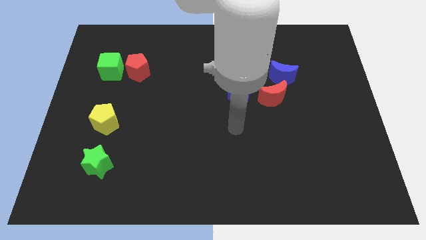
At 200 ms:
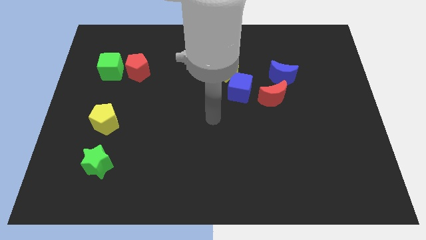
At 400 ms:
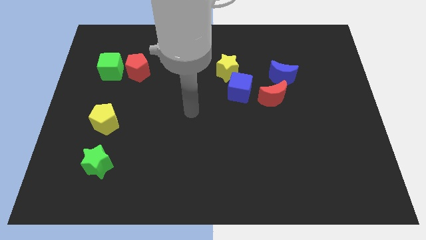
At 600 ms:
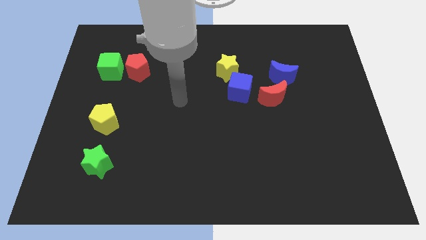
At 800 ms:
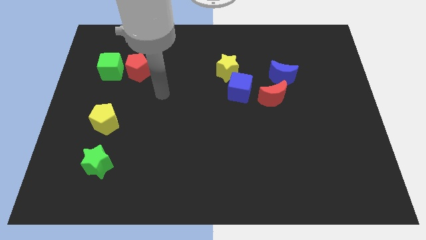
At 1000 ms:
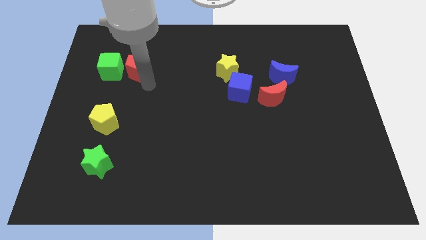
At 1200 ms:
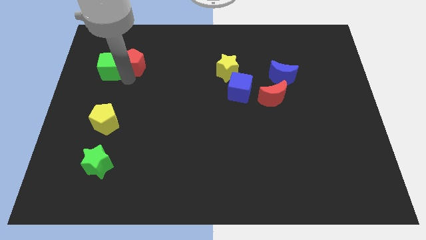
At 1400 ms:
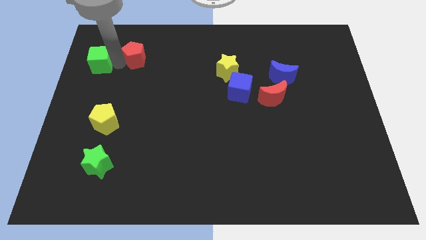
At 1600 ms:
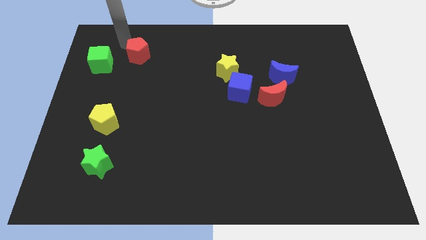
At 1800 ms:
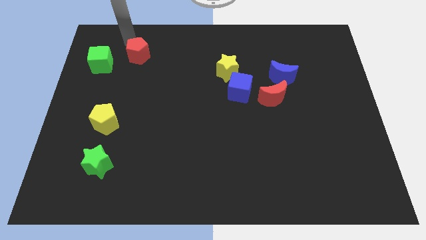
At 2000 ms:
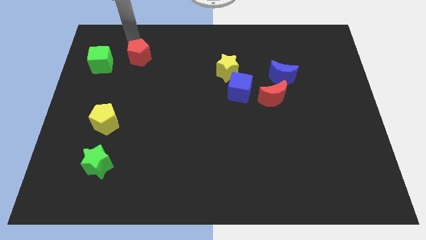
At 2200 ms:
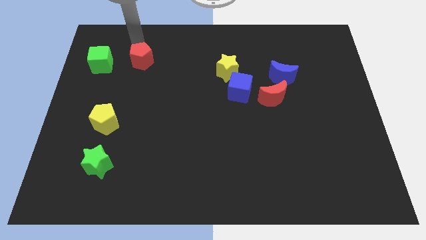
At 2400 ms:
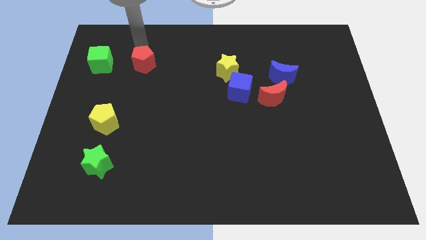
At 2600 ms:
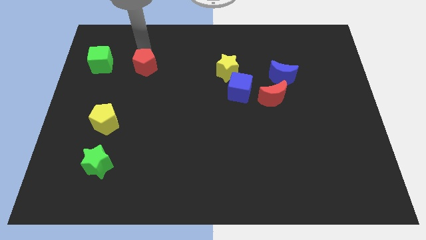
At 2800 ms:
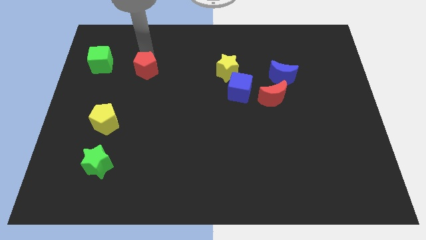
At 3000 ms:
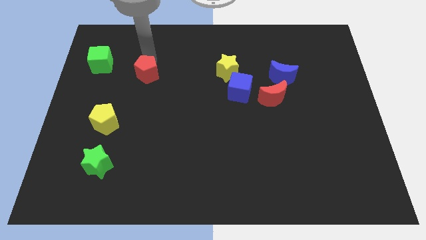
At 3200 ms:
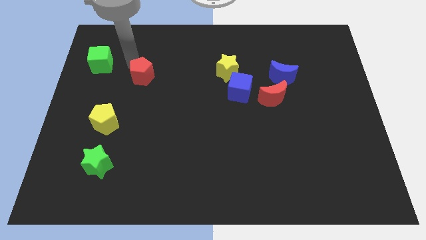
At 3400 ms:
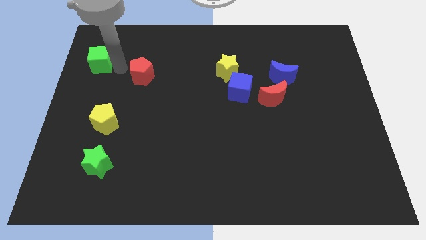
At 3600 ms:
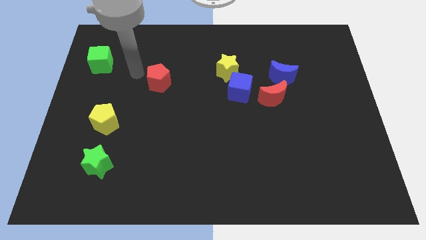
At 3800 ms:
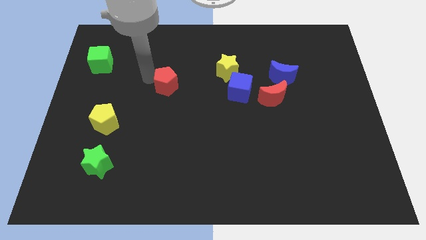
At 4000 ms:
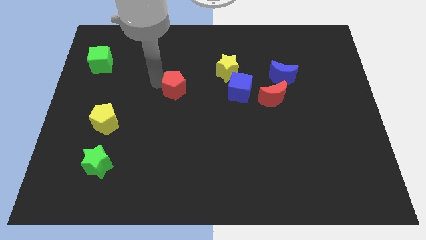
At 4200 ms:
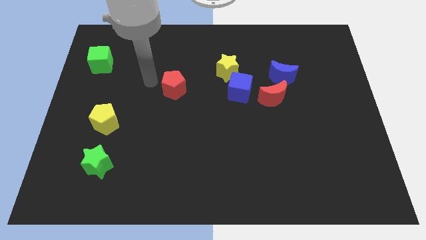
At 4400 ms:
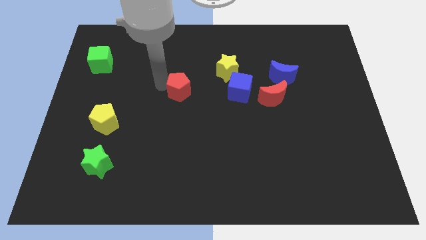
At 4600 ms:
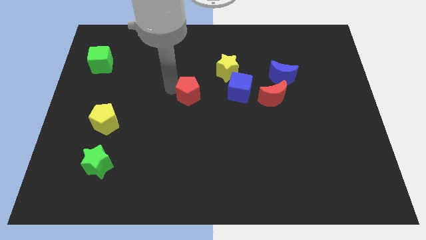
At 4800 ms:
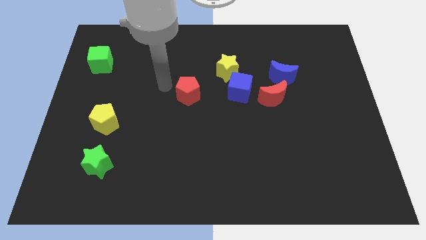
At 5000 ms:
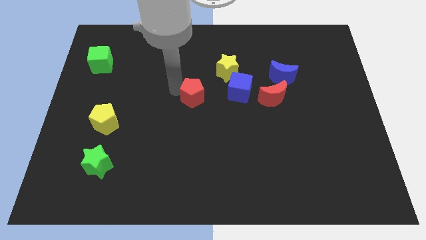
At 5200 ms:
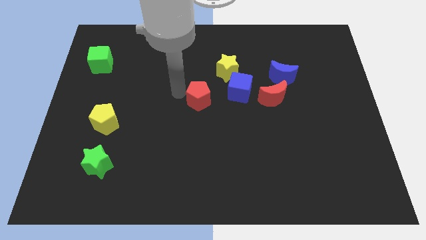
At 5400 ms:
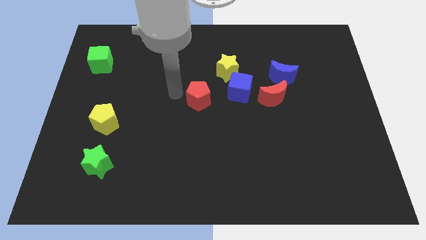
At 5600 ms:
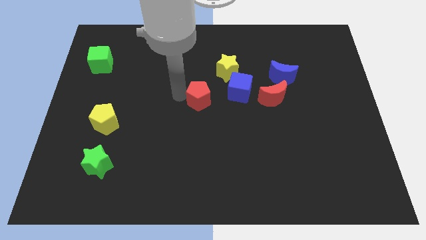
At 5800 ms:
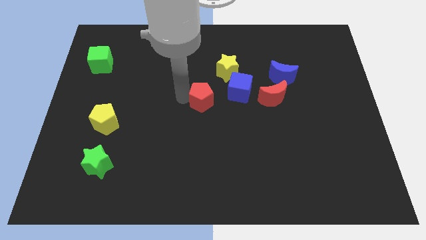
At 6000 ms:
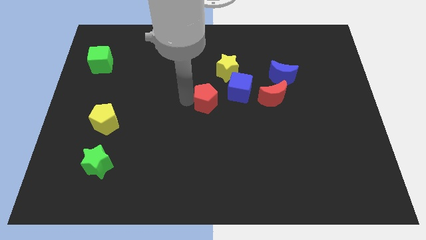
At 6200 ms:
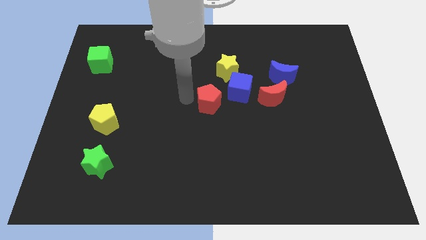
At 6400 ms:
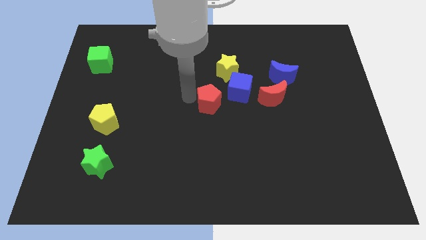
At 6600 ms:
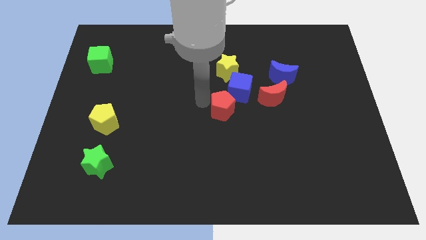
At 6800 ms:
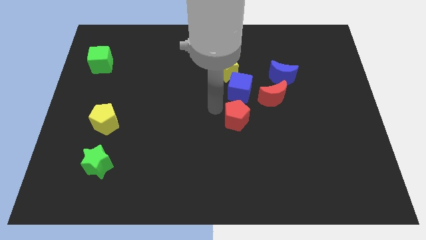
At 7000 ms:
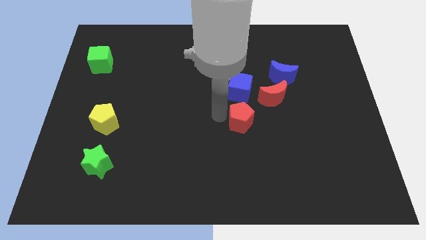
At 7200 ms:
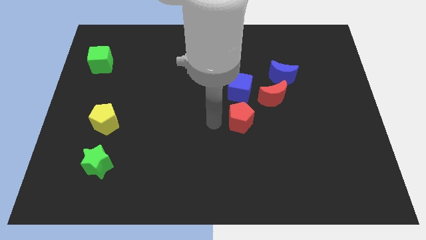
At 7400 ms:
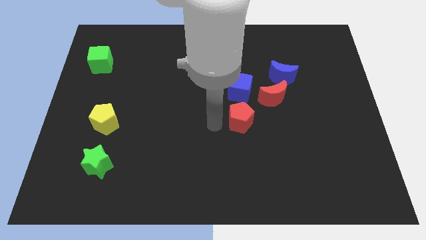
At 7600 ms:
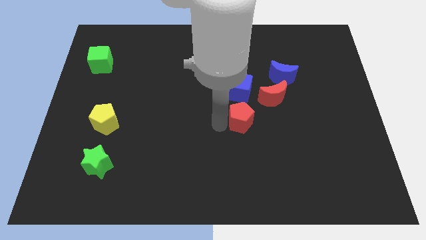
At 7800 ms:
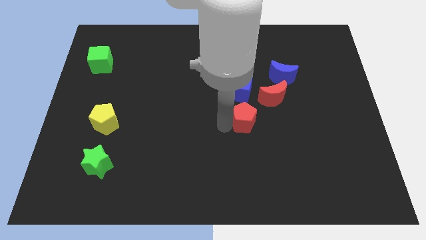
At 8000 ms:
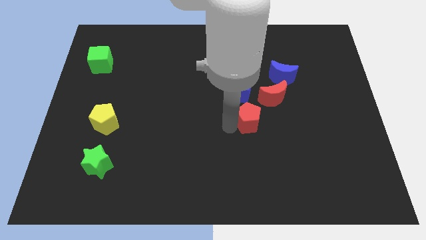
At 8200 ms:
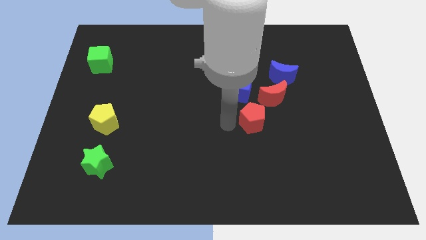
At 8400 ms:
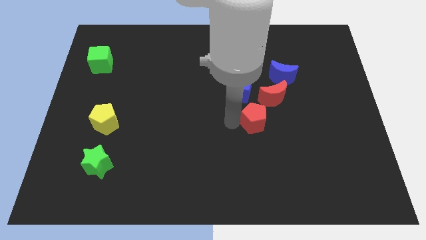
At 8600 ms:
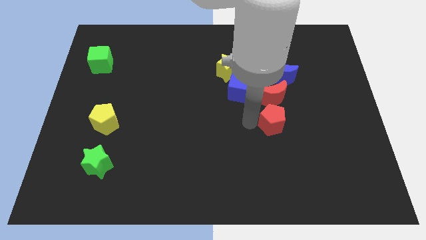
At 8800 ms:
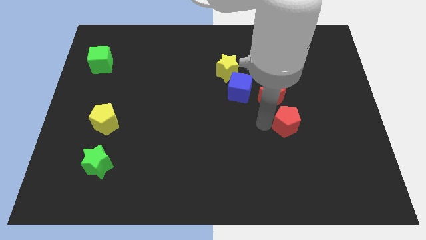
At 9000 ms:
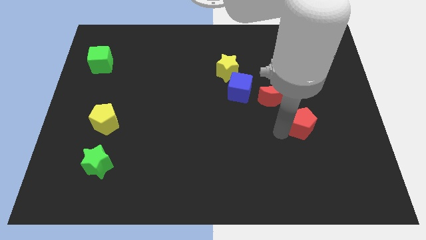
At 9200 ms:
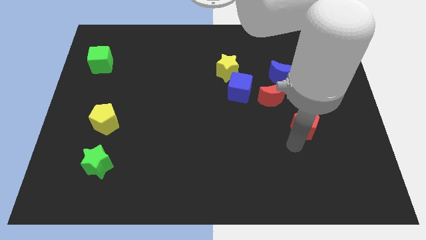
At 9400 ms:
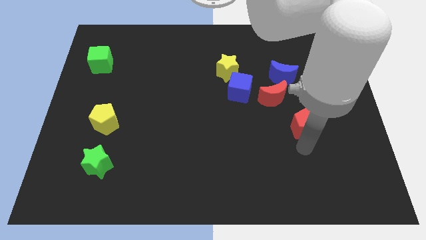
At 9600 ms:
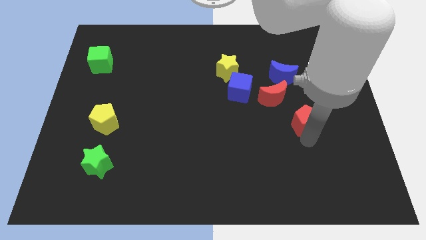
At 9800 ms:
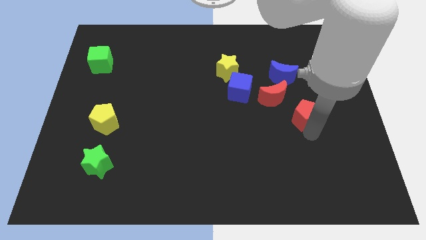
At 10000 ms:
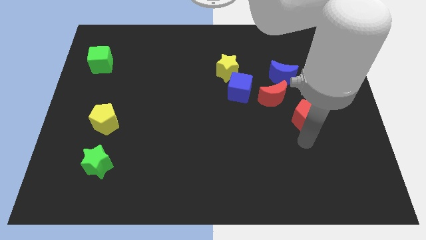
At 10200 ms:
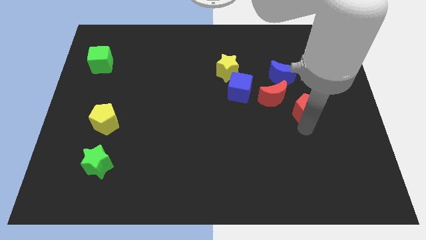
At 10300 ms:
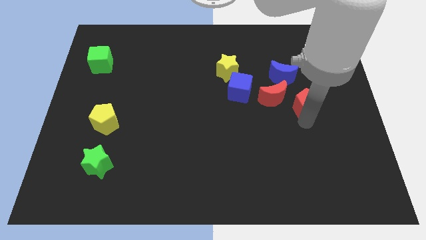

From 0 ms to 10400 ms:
push the red pentagon diagonally down and to the right of the blue moon
